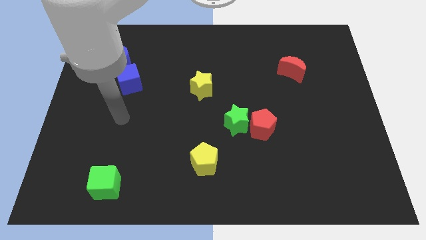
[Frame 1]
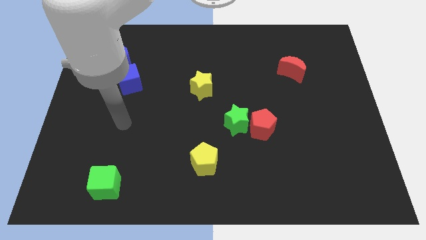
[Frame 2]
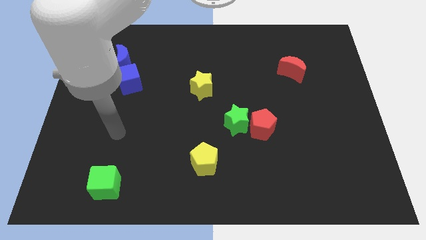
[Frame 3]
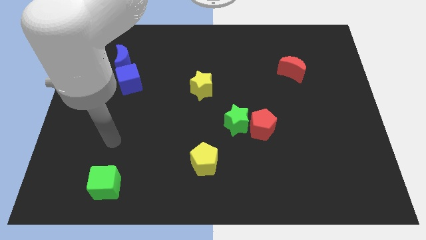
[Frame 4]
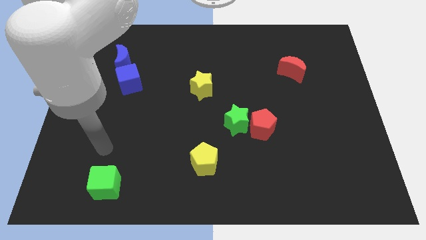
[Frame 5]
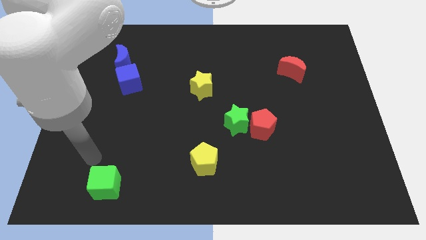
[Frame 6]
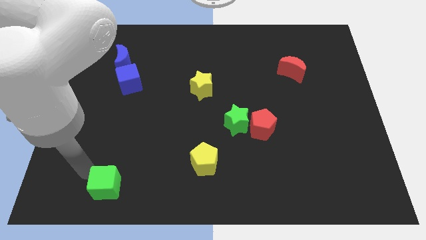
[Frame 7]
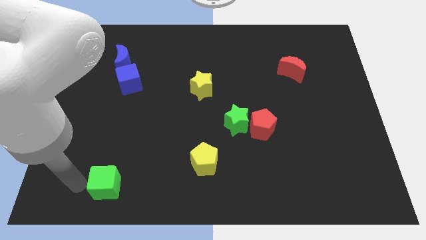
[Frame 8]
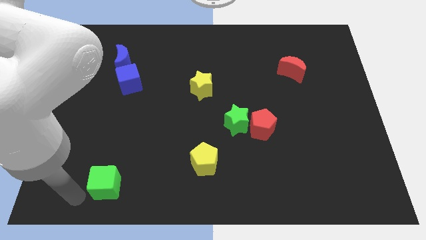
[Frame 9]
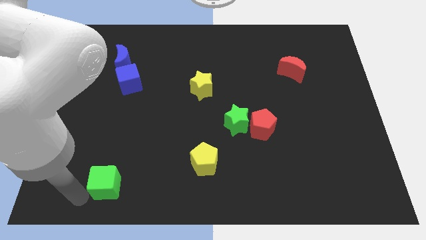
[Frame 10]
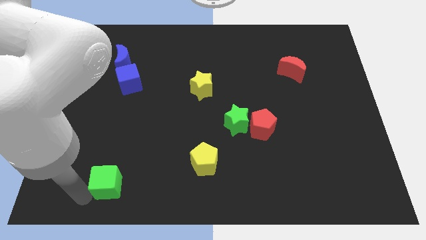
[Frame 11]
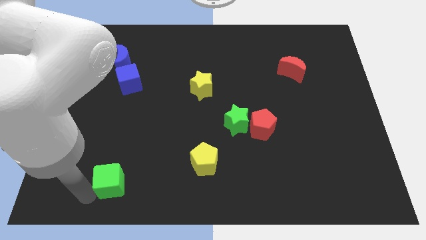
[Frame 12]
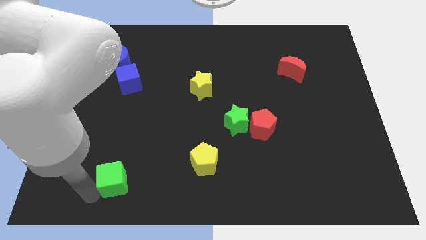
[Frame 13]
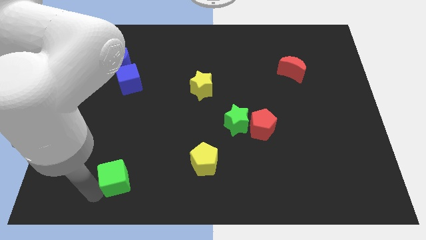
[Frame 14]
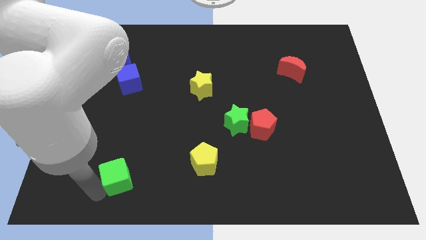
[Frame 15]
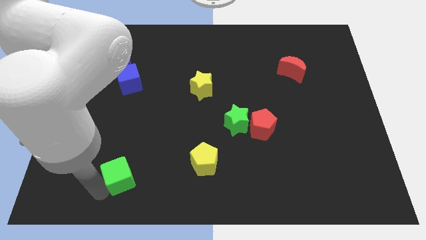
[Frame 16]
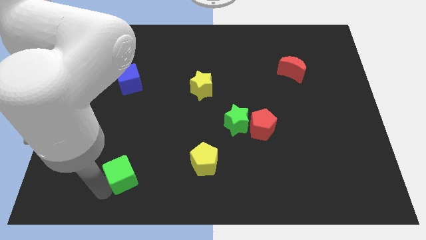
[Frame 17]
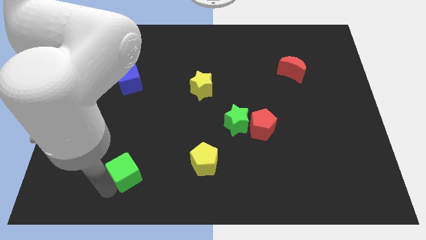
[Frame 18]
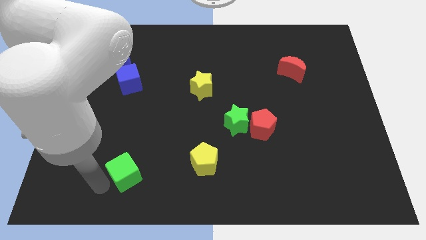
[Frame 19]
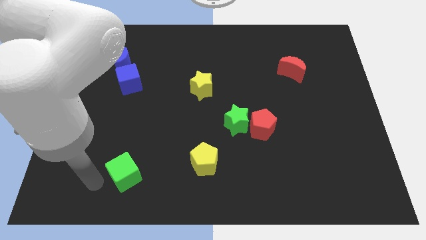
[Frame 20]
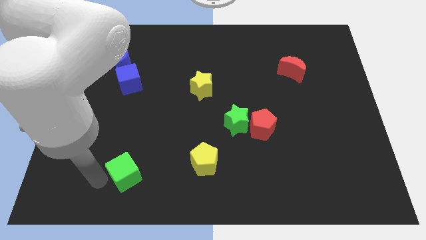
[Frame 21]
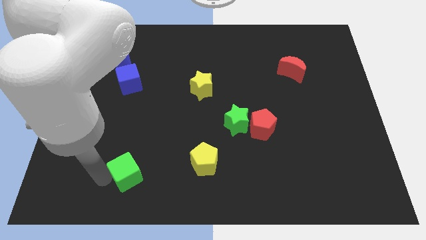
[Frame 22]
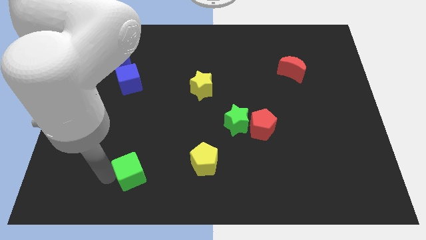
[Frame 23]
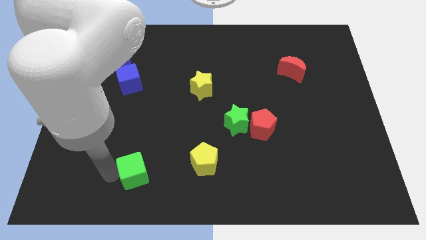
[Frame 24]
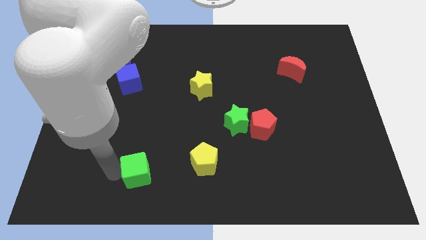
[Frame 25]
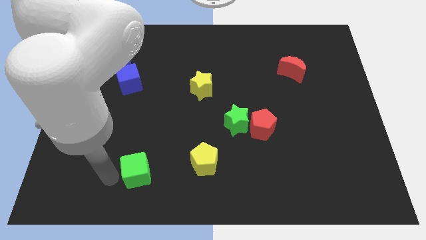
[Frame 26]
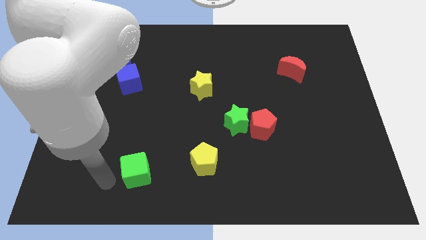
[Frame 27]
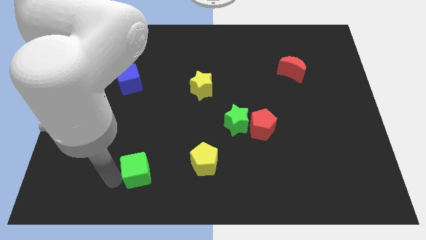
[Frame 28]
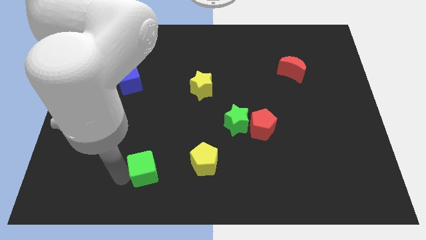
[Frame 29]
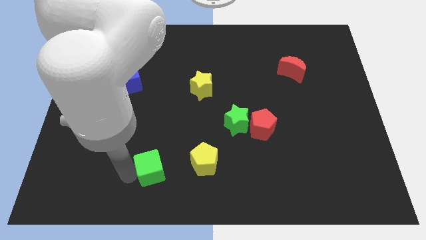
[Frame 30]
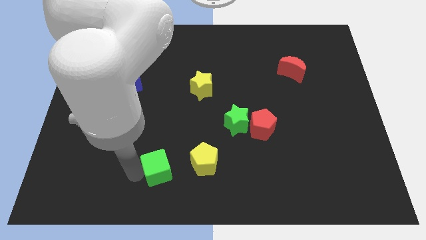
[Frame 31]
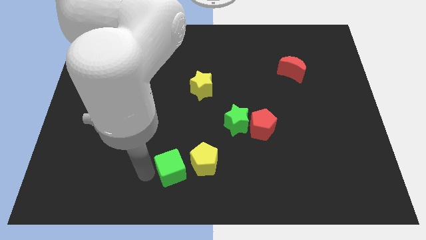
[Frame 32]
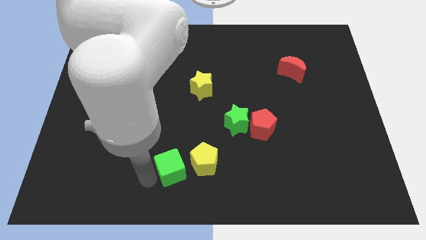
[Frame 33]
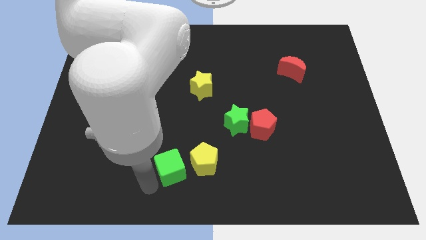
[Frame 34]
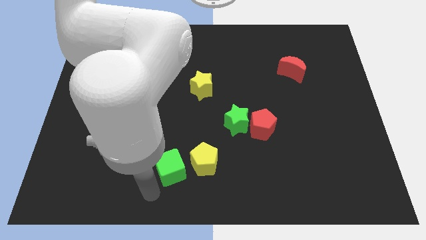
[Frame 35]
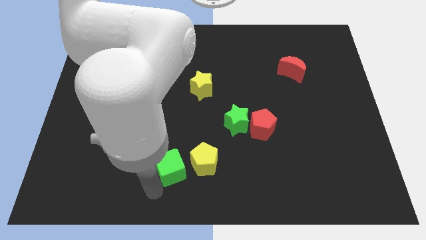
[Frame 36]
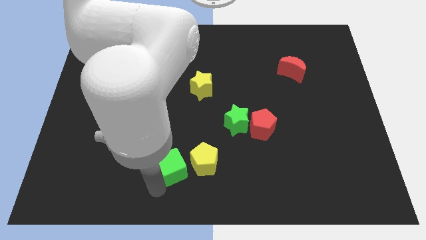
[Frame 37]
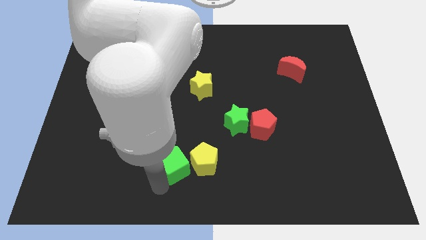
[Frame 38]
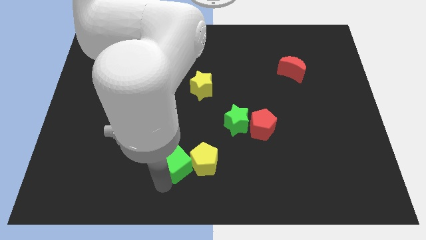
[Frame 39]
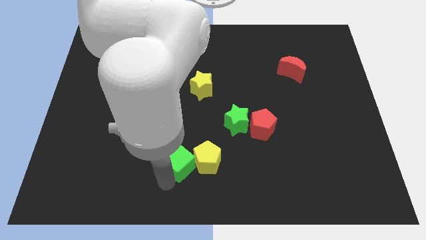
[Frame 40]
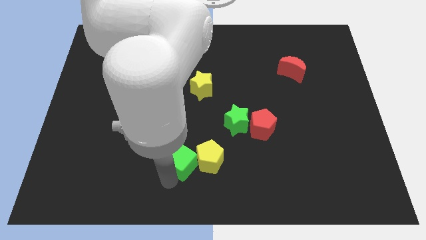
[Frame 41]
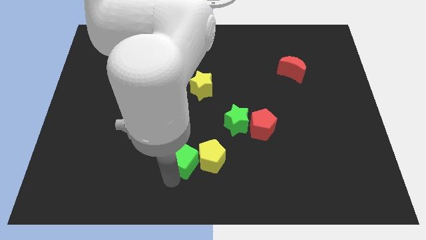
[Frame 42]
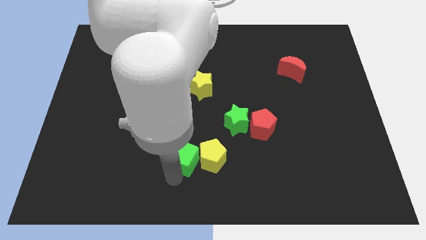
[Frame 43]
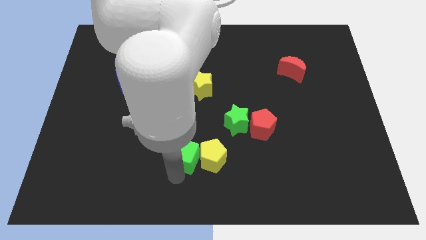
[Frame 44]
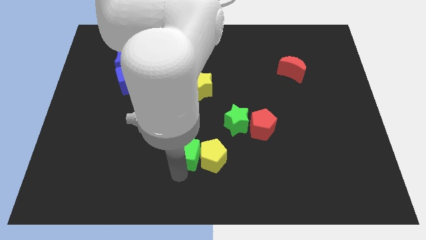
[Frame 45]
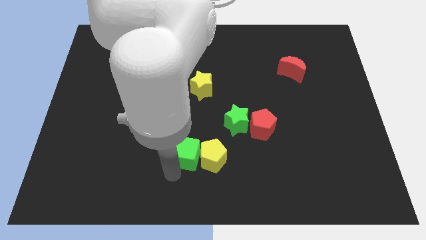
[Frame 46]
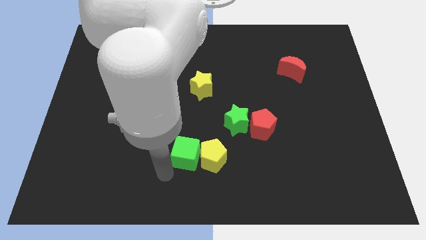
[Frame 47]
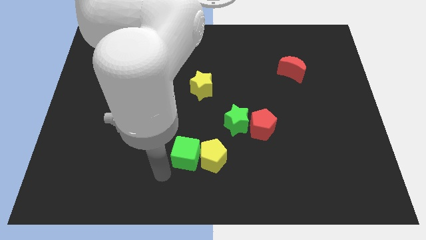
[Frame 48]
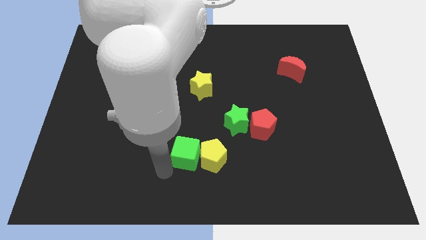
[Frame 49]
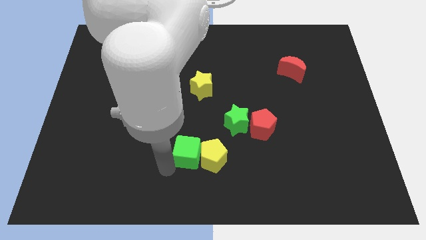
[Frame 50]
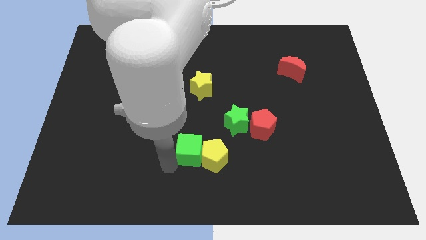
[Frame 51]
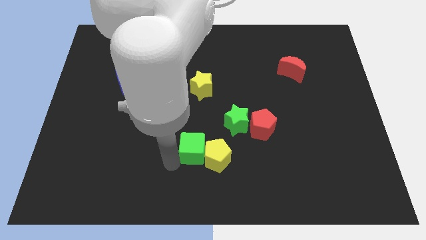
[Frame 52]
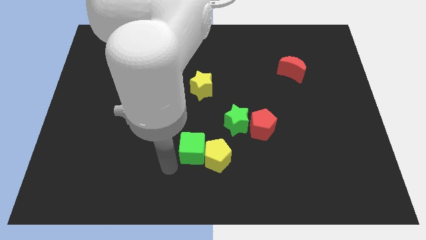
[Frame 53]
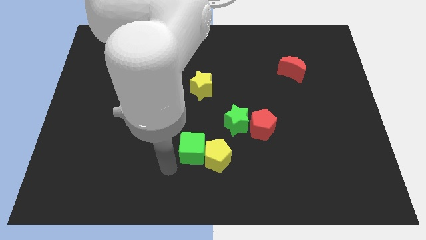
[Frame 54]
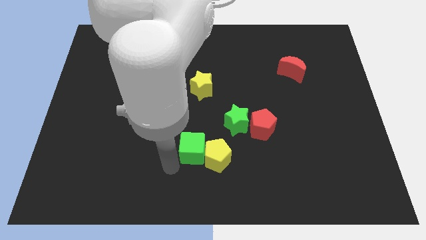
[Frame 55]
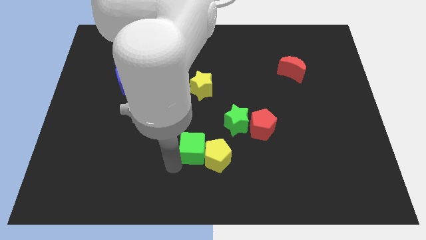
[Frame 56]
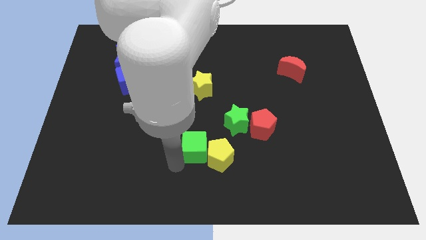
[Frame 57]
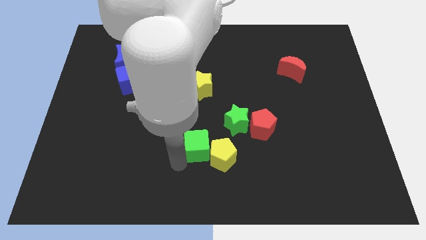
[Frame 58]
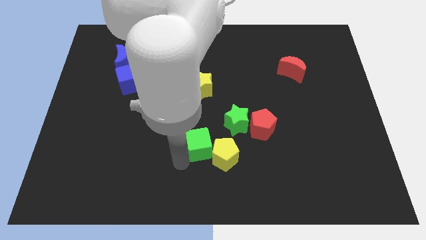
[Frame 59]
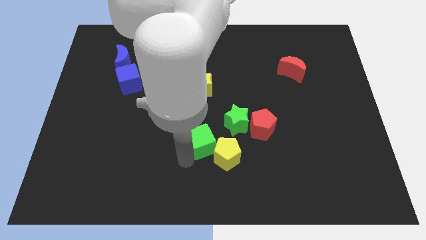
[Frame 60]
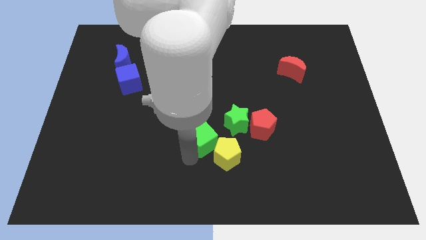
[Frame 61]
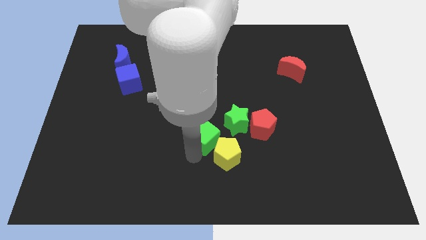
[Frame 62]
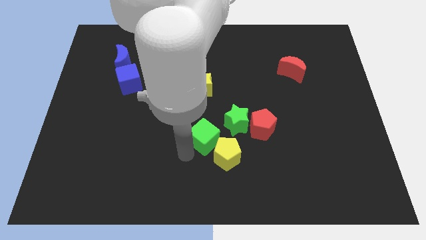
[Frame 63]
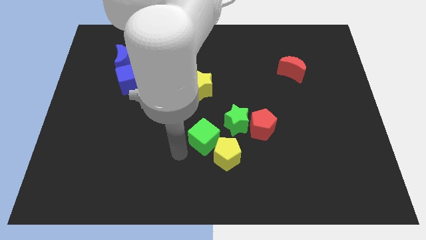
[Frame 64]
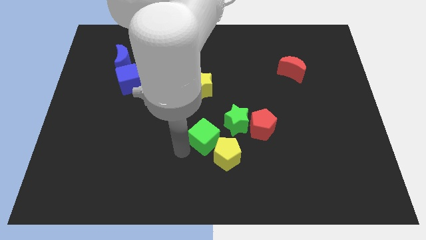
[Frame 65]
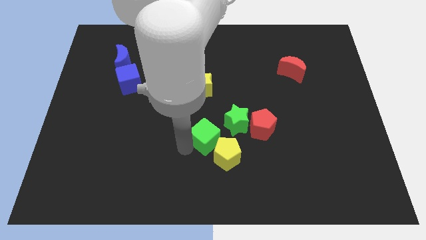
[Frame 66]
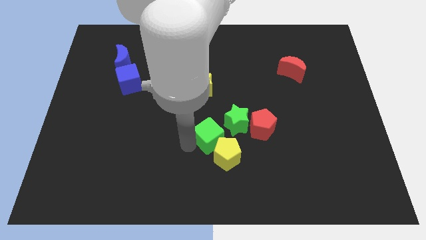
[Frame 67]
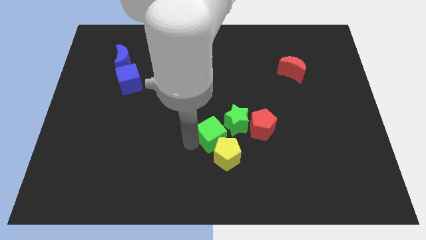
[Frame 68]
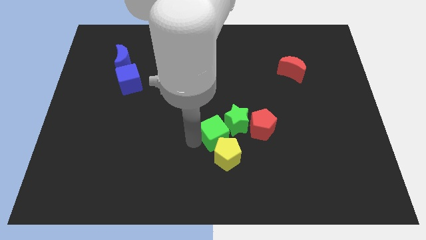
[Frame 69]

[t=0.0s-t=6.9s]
push the green cube towards the green star

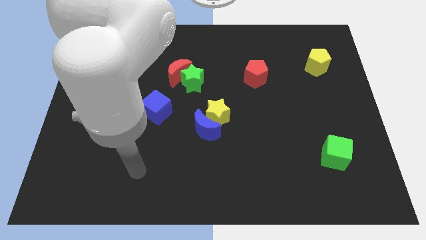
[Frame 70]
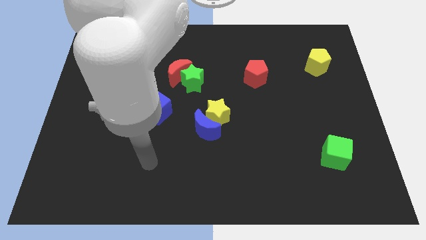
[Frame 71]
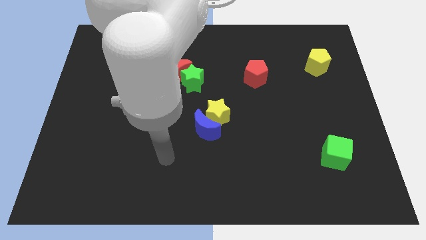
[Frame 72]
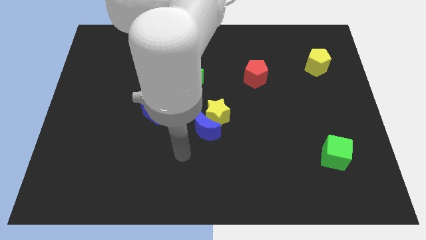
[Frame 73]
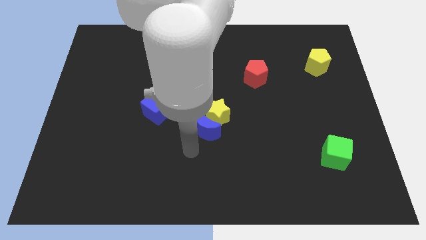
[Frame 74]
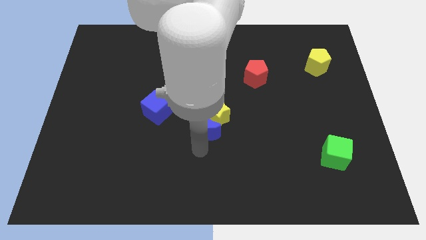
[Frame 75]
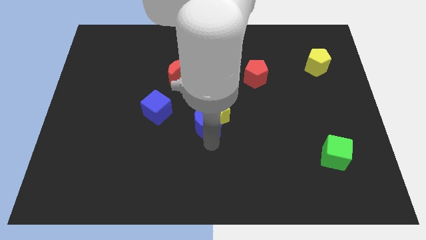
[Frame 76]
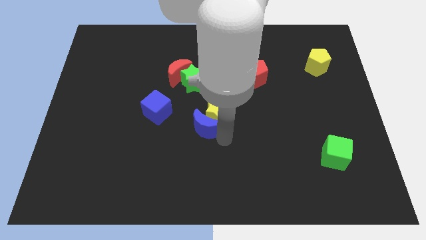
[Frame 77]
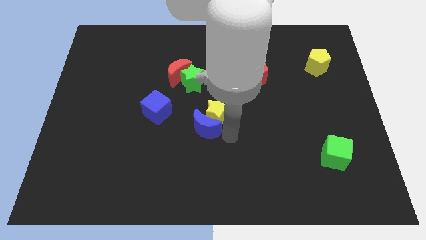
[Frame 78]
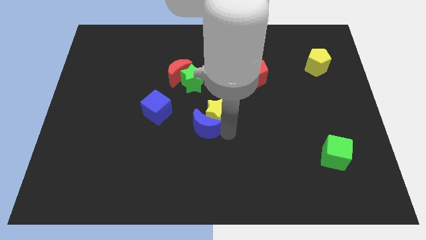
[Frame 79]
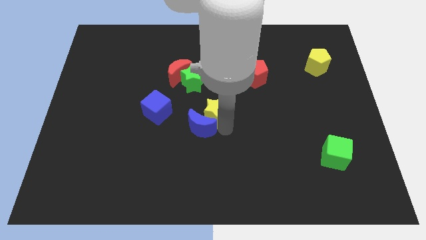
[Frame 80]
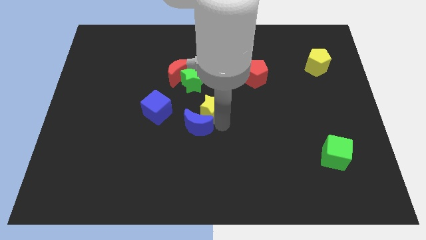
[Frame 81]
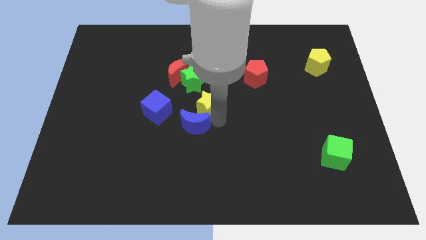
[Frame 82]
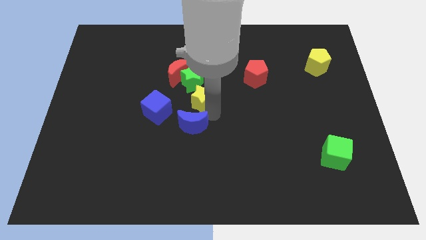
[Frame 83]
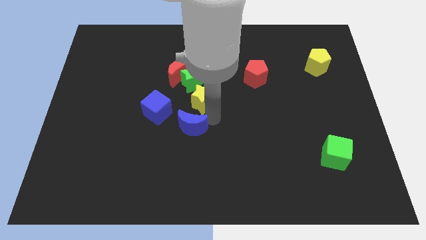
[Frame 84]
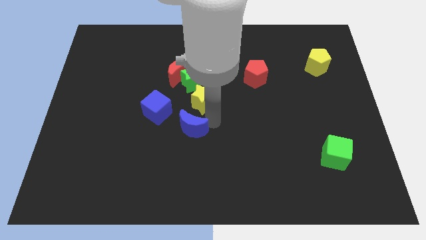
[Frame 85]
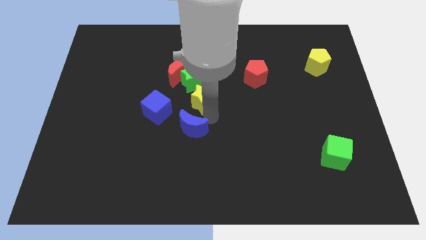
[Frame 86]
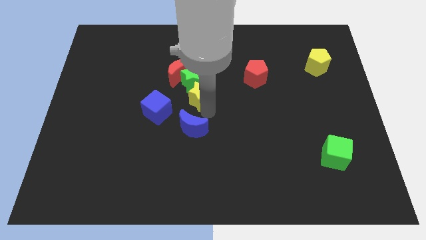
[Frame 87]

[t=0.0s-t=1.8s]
move the yellow star towards the green star
